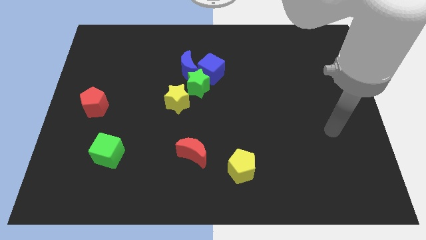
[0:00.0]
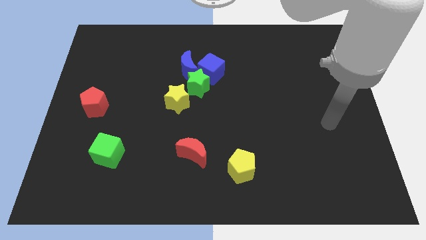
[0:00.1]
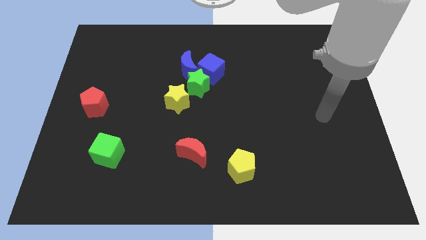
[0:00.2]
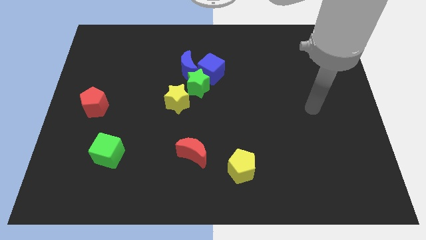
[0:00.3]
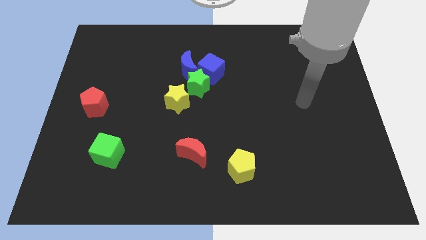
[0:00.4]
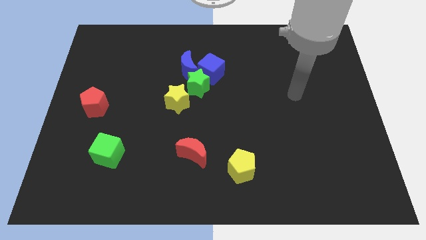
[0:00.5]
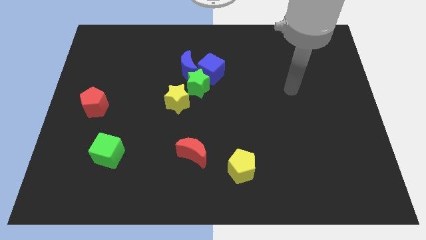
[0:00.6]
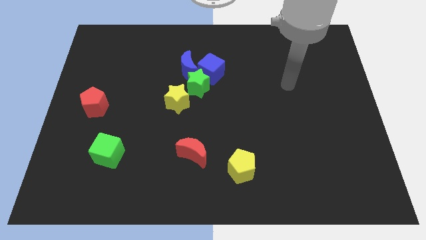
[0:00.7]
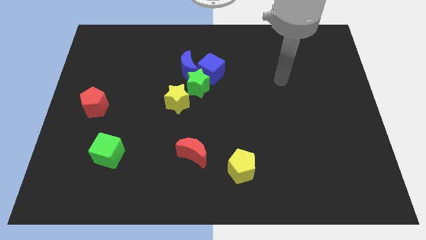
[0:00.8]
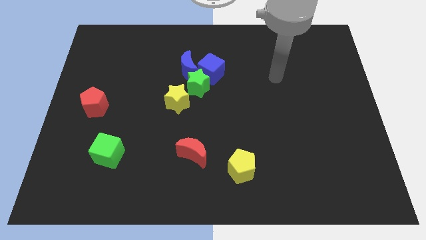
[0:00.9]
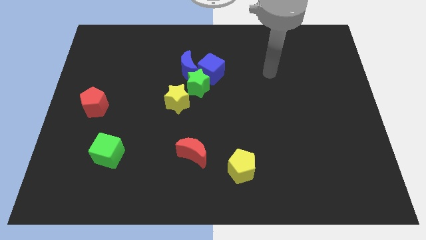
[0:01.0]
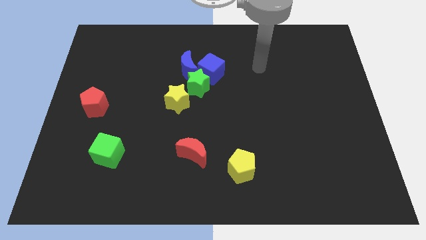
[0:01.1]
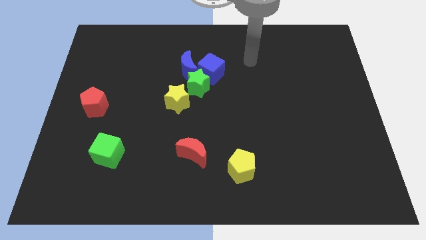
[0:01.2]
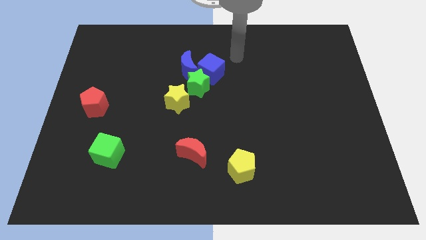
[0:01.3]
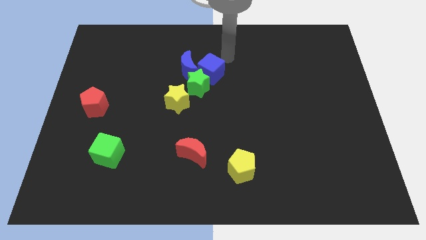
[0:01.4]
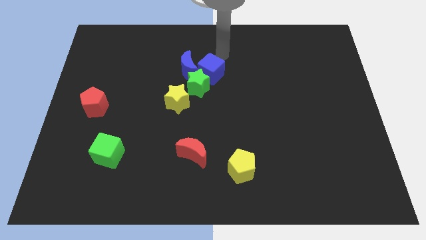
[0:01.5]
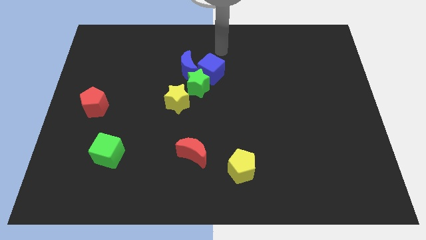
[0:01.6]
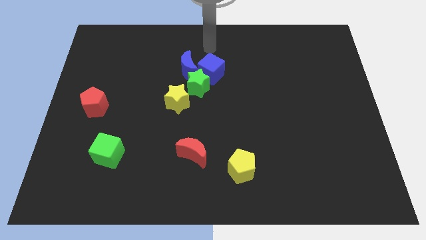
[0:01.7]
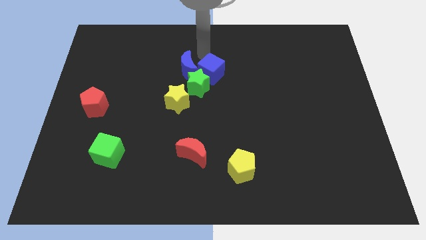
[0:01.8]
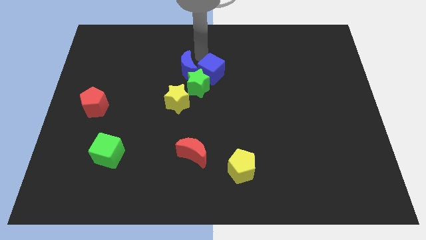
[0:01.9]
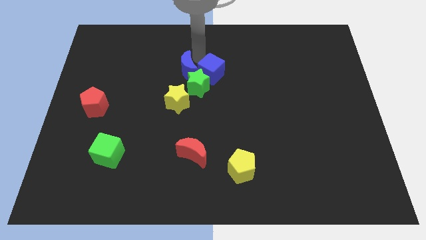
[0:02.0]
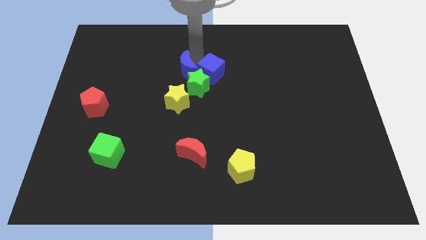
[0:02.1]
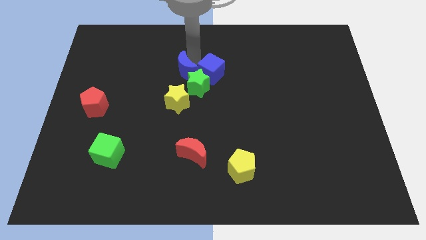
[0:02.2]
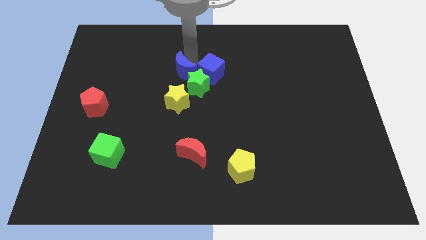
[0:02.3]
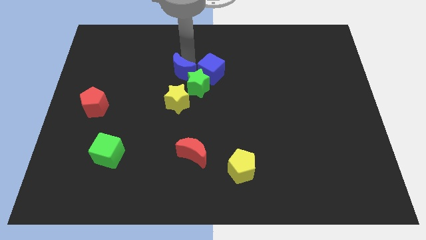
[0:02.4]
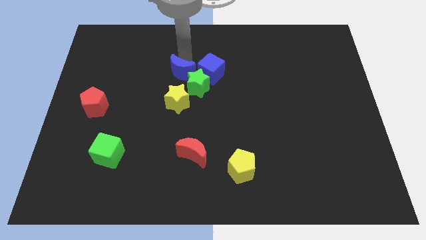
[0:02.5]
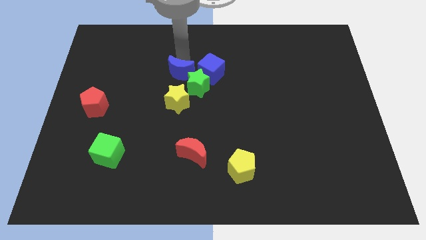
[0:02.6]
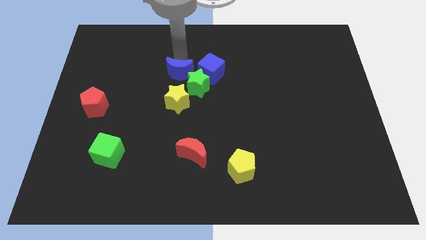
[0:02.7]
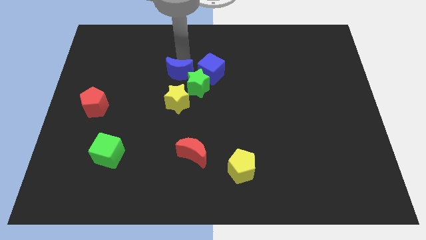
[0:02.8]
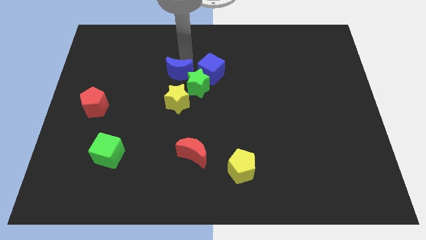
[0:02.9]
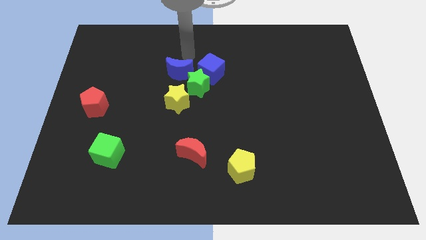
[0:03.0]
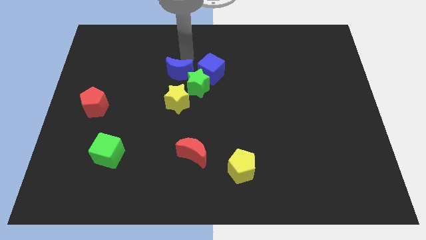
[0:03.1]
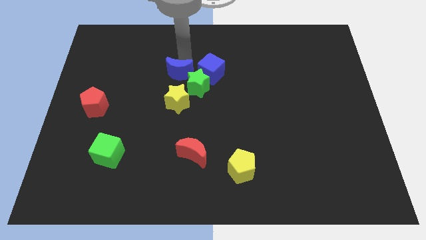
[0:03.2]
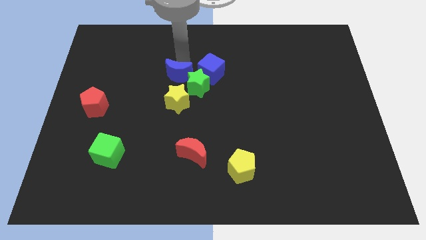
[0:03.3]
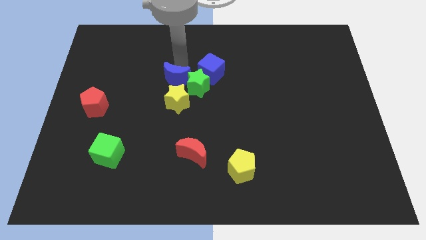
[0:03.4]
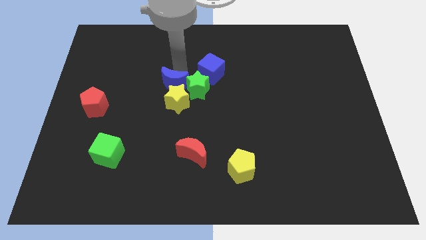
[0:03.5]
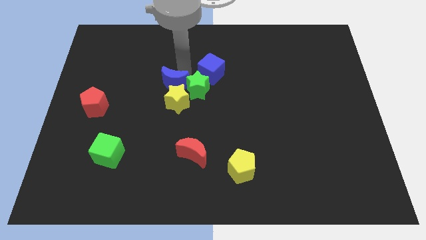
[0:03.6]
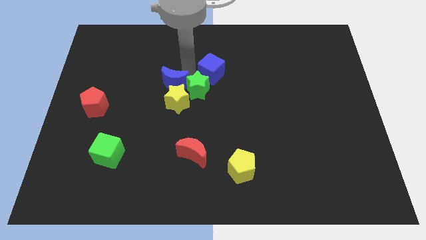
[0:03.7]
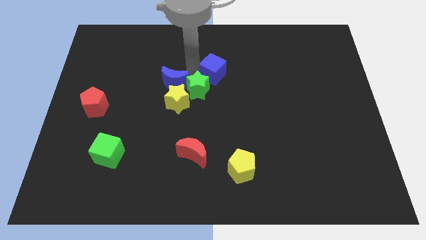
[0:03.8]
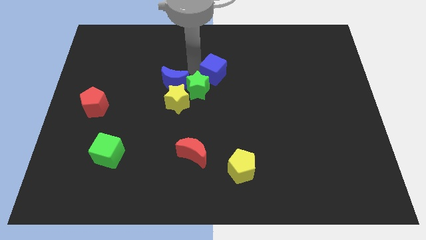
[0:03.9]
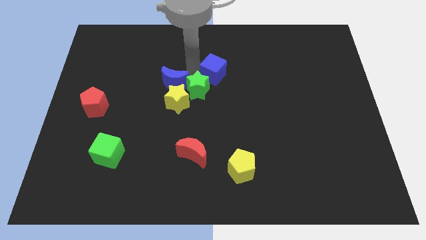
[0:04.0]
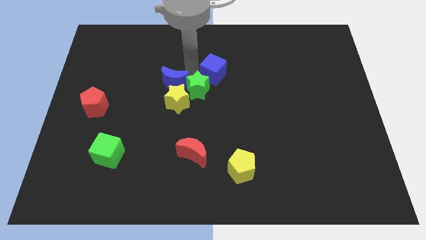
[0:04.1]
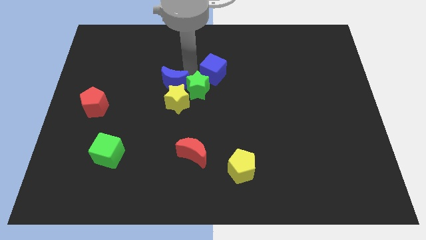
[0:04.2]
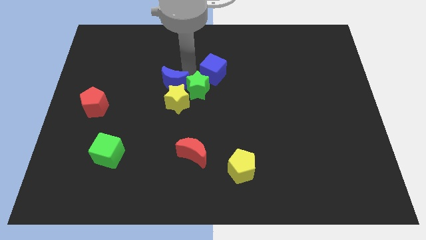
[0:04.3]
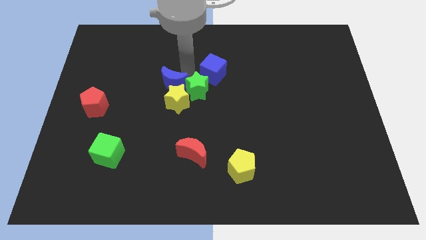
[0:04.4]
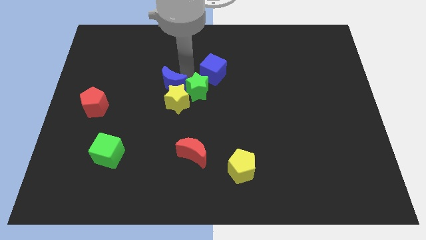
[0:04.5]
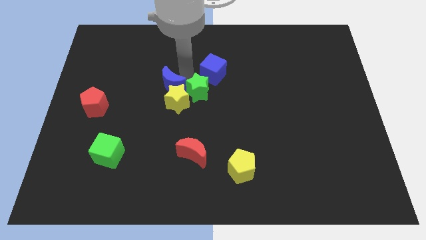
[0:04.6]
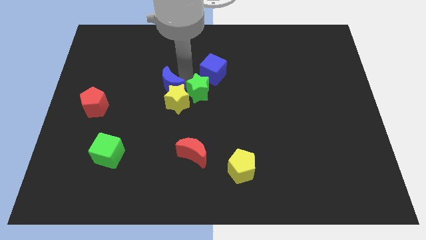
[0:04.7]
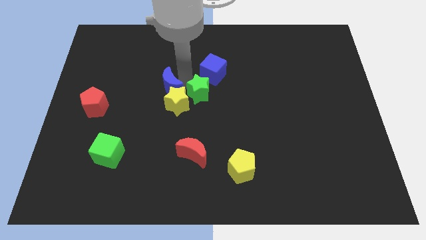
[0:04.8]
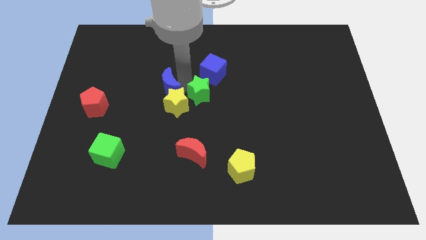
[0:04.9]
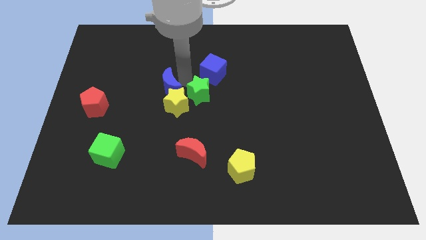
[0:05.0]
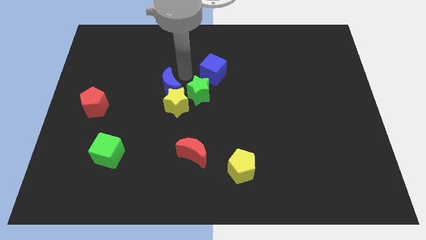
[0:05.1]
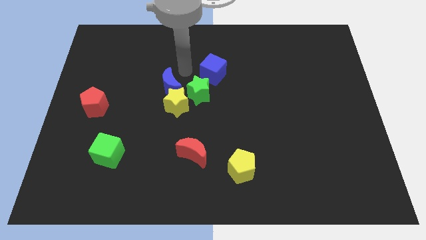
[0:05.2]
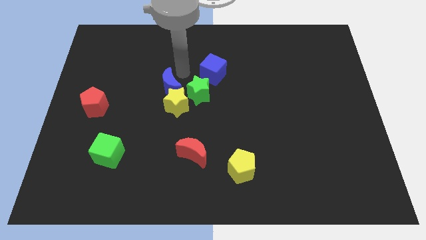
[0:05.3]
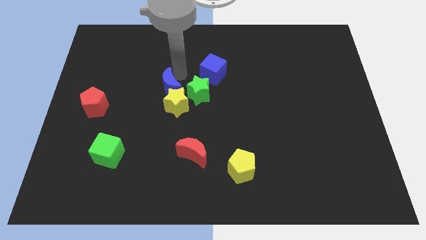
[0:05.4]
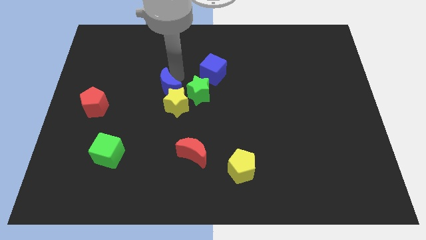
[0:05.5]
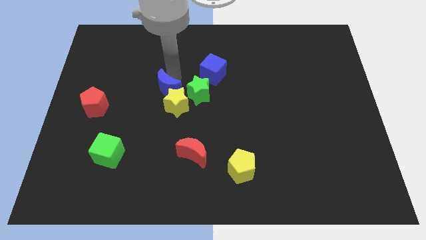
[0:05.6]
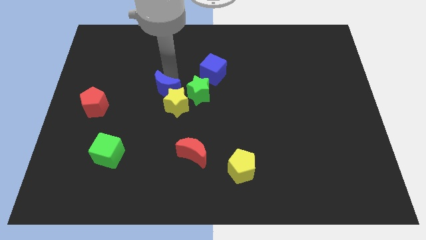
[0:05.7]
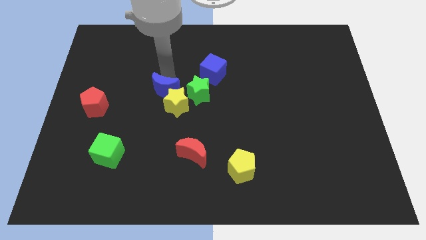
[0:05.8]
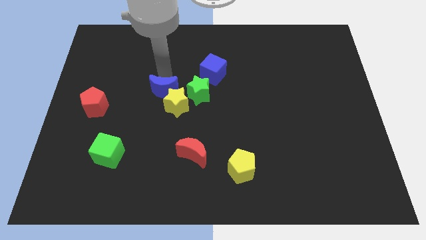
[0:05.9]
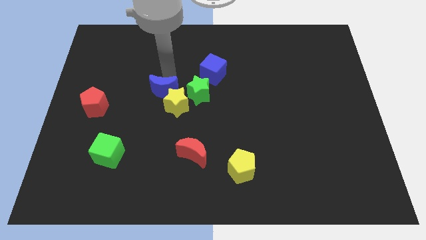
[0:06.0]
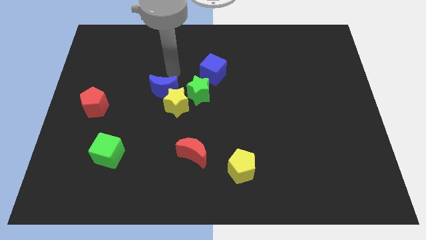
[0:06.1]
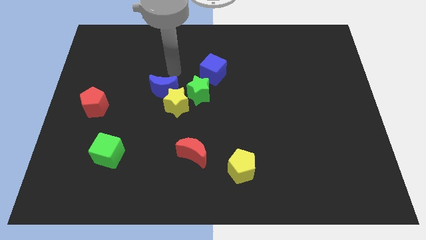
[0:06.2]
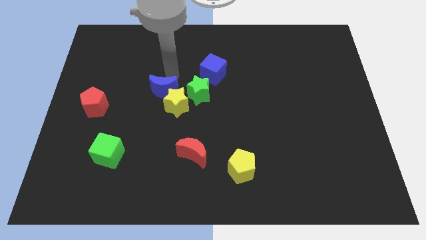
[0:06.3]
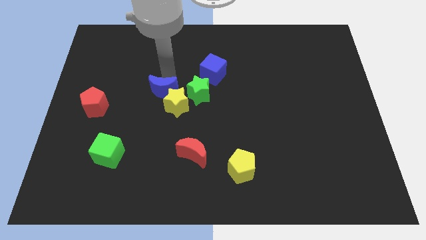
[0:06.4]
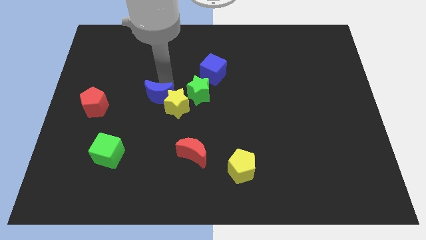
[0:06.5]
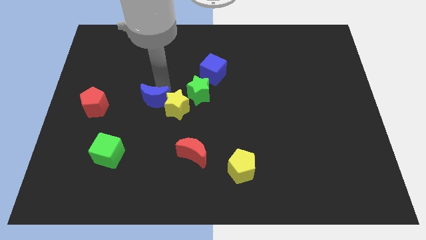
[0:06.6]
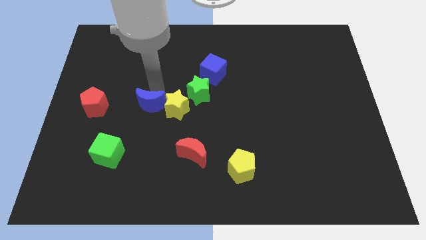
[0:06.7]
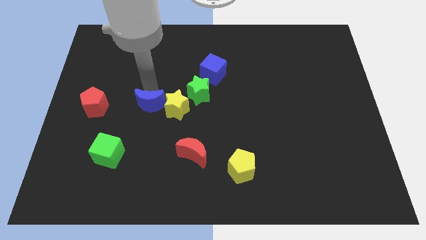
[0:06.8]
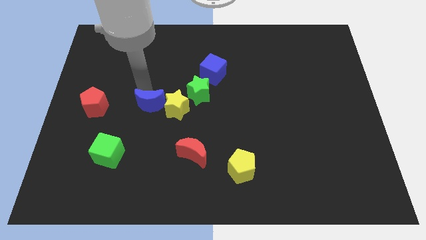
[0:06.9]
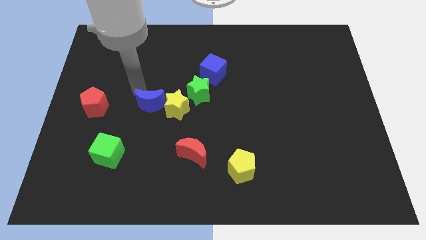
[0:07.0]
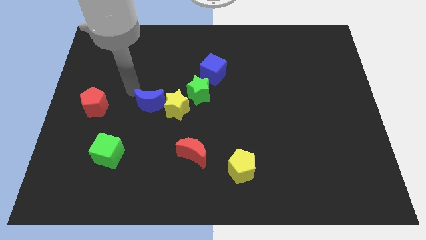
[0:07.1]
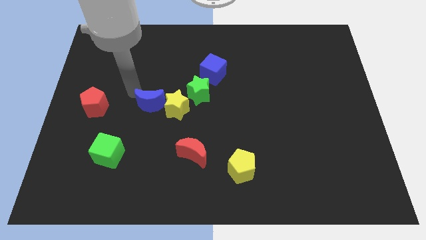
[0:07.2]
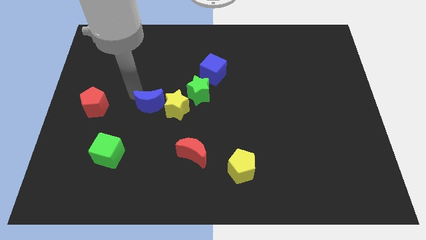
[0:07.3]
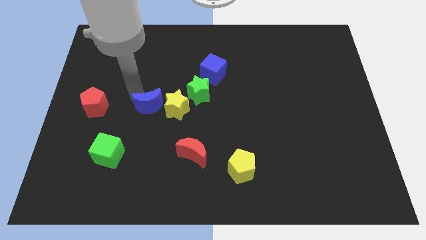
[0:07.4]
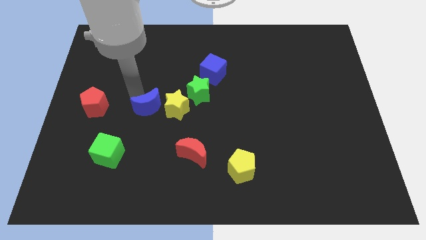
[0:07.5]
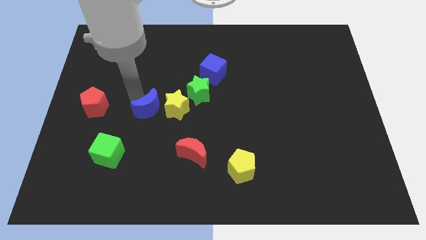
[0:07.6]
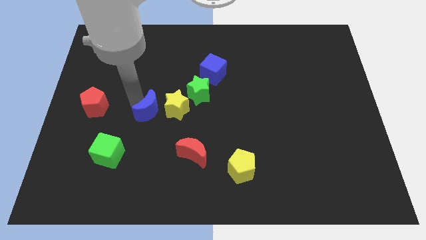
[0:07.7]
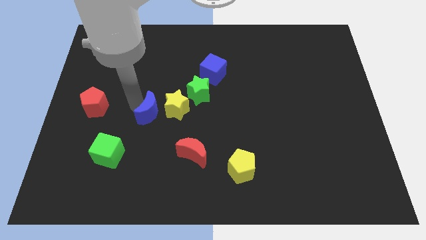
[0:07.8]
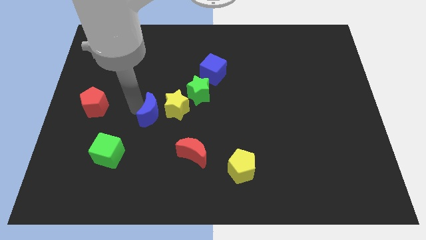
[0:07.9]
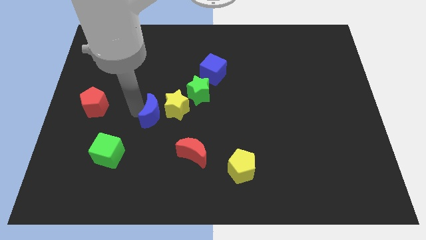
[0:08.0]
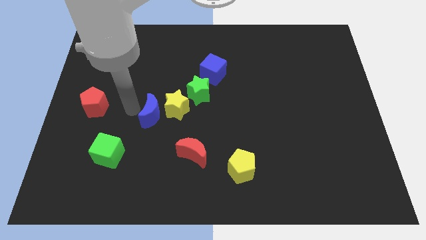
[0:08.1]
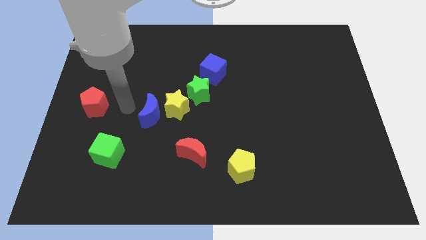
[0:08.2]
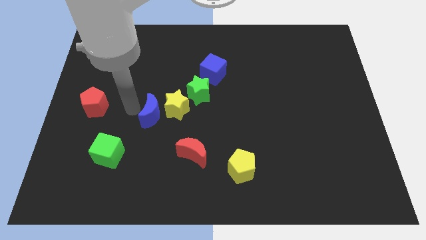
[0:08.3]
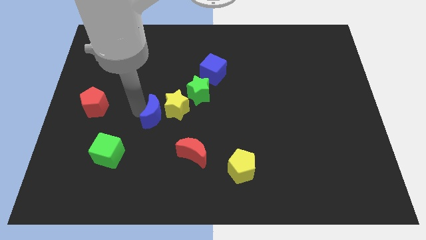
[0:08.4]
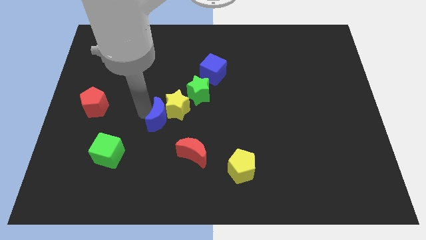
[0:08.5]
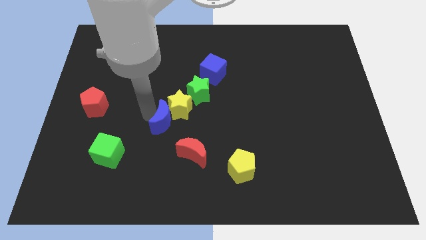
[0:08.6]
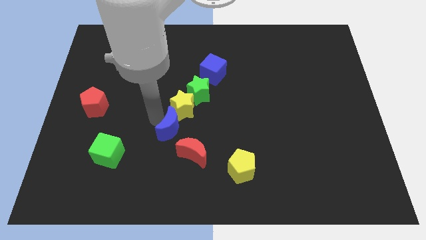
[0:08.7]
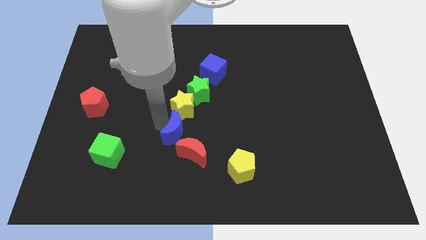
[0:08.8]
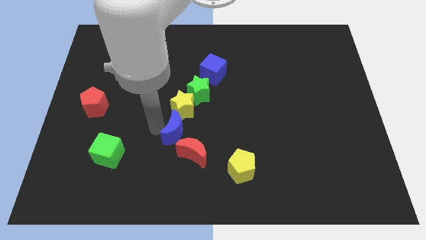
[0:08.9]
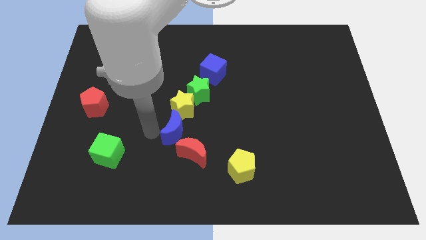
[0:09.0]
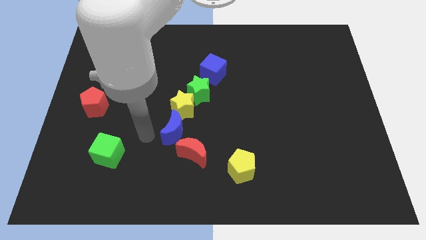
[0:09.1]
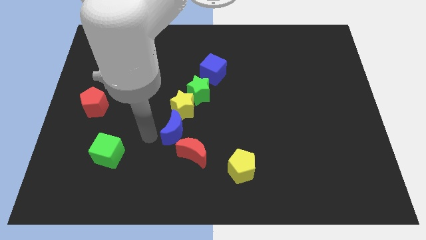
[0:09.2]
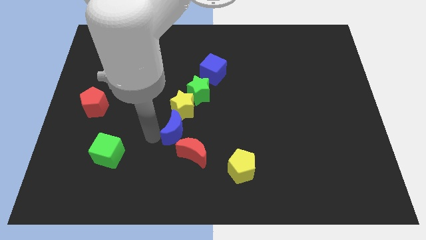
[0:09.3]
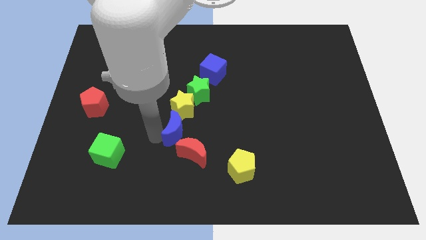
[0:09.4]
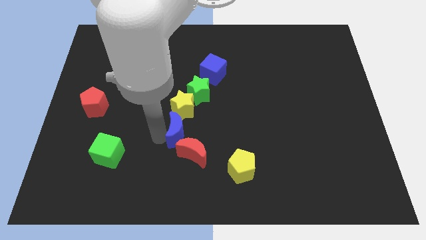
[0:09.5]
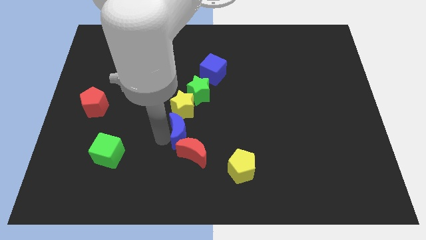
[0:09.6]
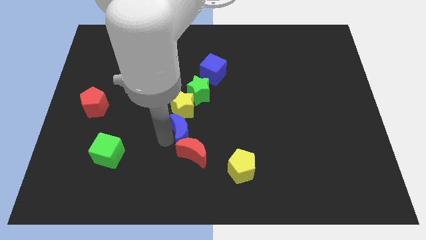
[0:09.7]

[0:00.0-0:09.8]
put the blue moon diagonally down and to the right of the yellow star
